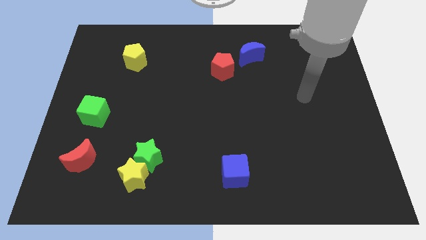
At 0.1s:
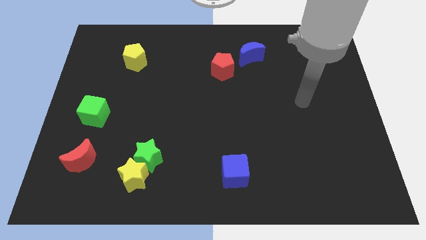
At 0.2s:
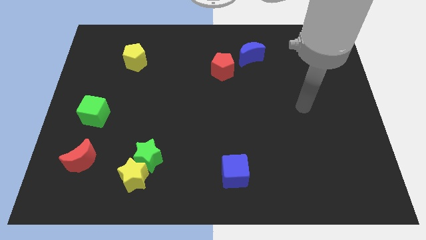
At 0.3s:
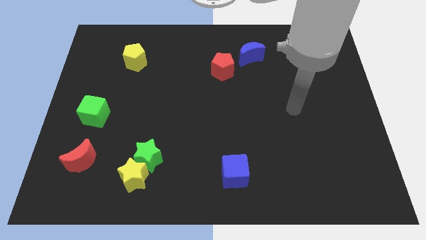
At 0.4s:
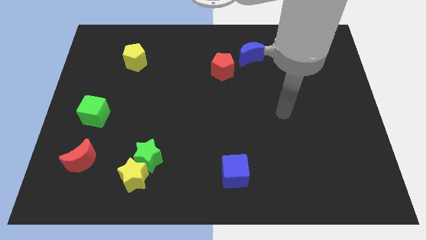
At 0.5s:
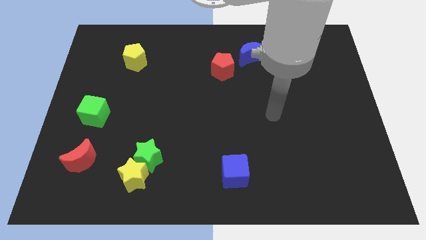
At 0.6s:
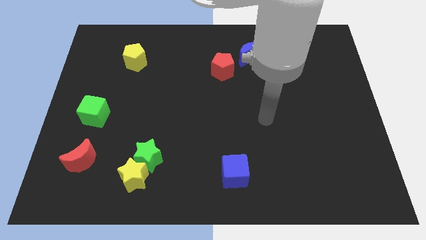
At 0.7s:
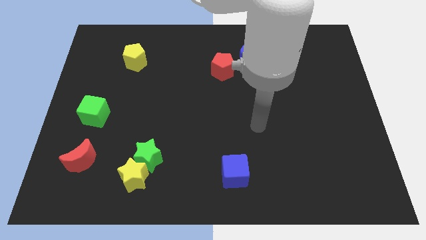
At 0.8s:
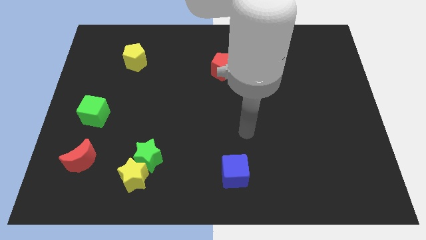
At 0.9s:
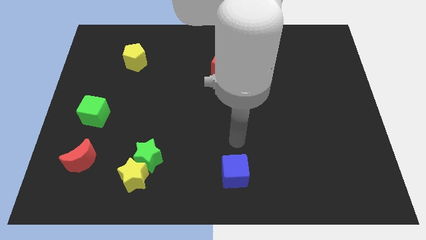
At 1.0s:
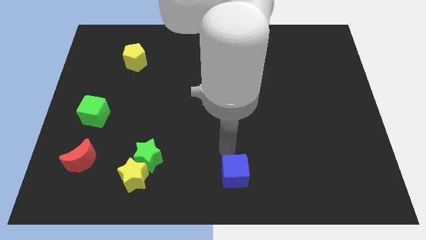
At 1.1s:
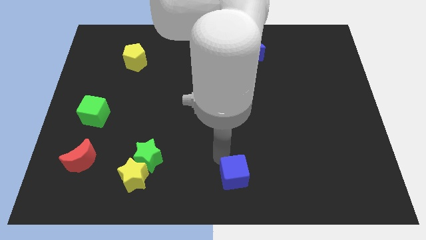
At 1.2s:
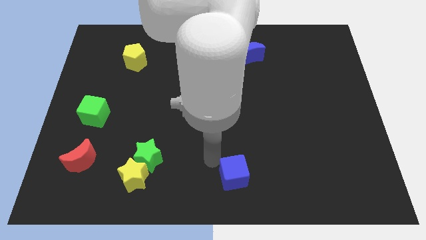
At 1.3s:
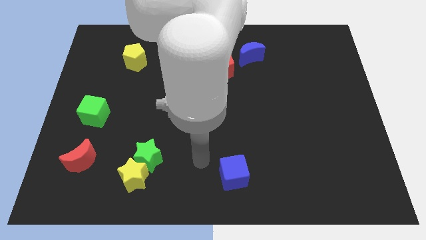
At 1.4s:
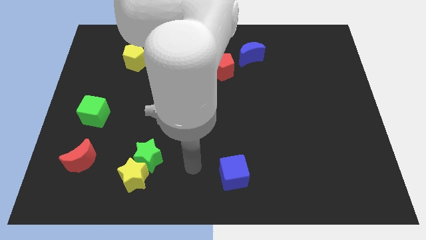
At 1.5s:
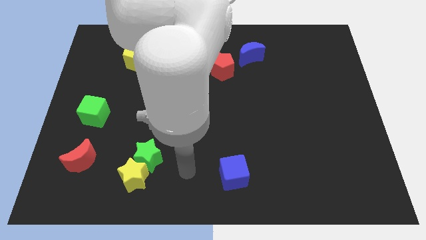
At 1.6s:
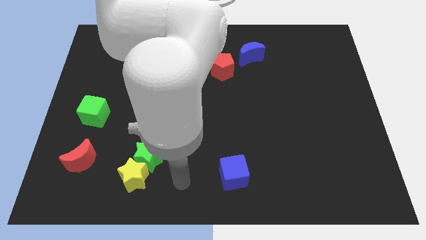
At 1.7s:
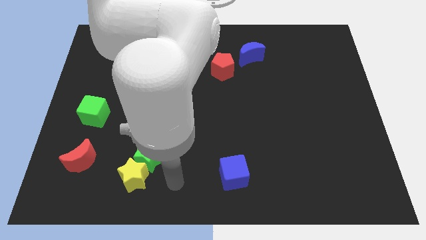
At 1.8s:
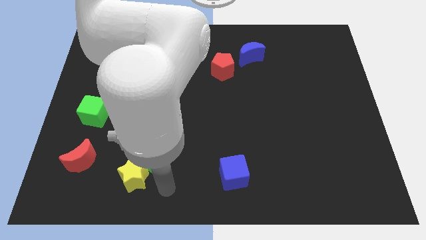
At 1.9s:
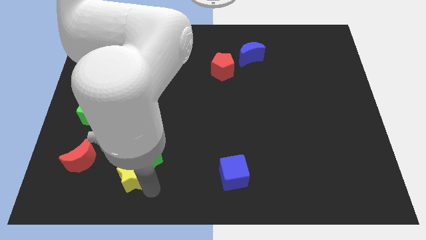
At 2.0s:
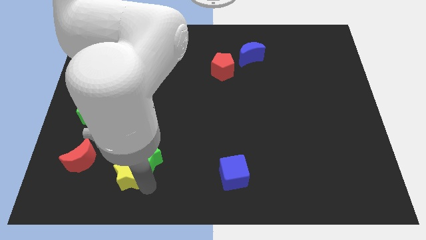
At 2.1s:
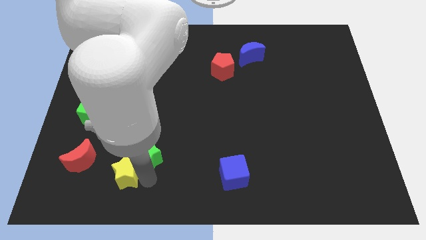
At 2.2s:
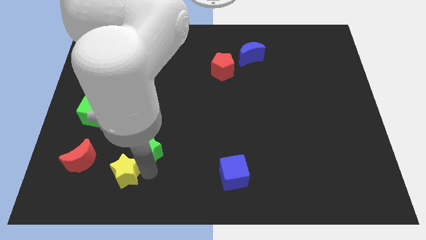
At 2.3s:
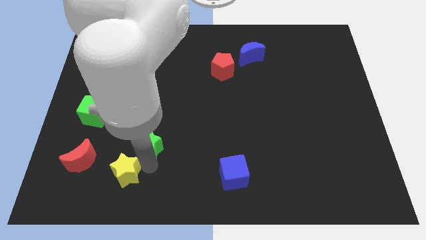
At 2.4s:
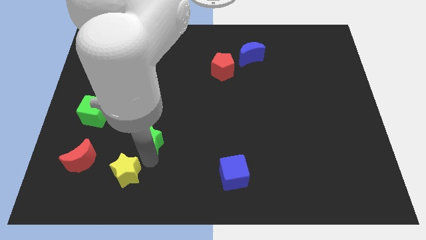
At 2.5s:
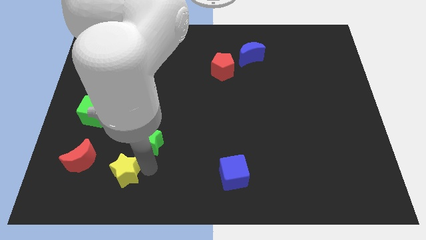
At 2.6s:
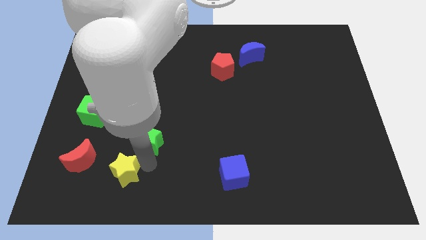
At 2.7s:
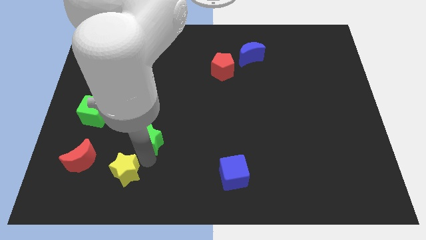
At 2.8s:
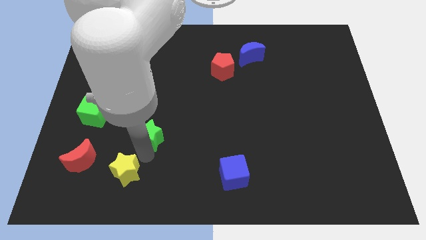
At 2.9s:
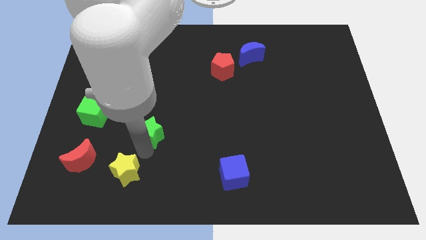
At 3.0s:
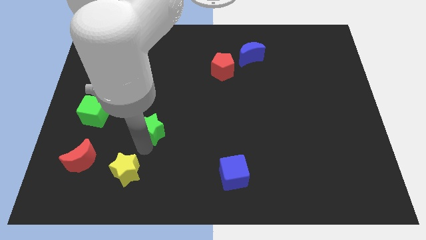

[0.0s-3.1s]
slightly push the green star up

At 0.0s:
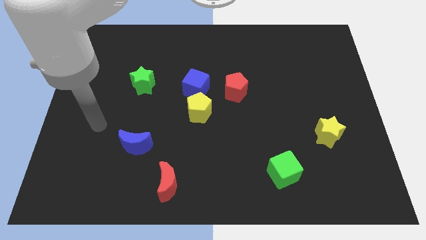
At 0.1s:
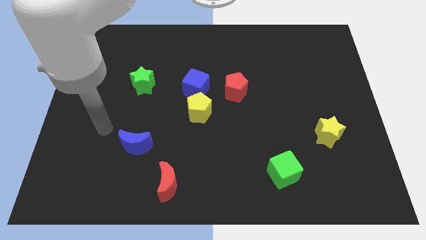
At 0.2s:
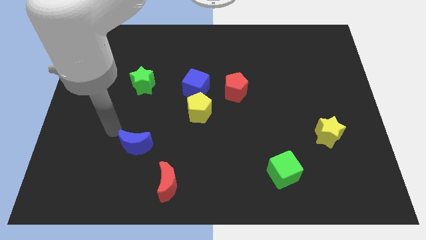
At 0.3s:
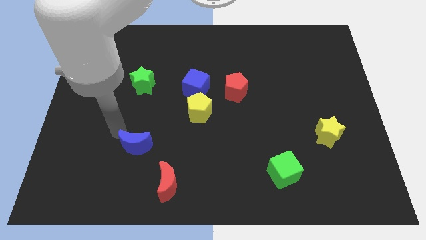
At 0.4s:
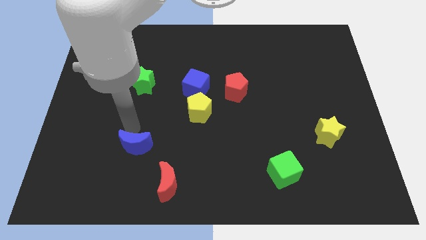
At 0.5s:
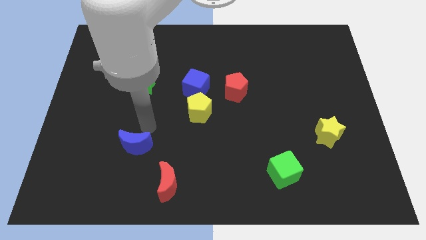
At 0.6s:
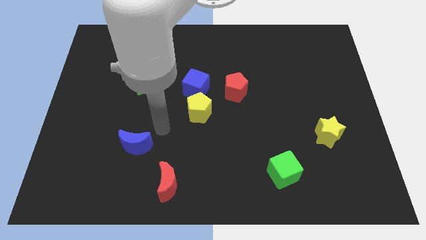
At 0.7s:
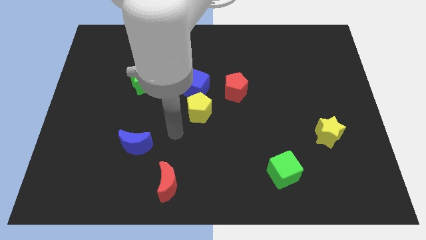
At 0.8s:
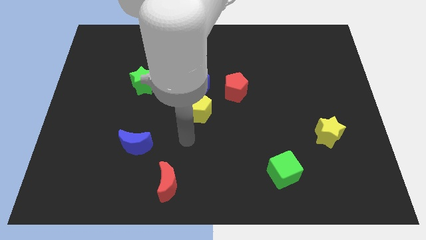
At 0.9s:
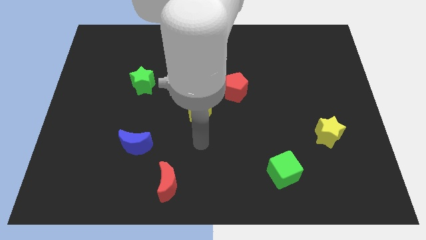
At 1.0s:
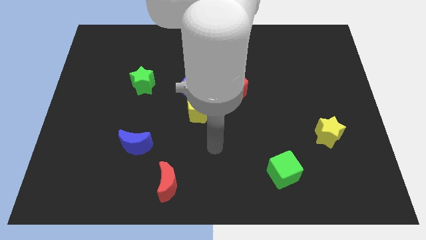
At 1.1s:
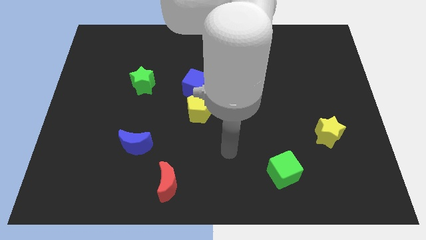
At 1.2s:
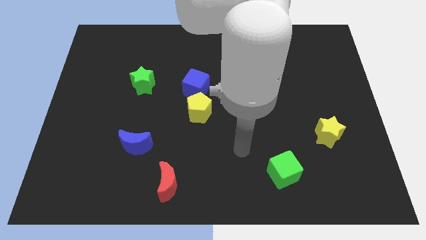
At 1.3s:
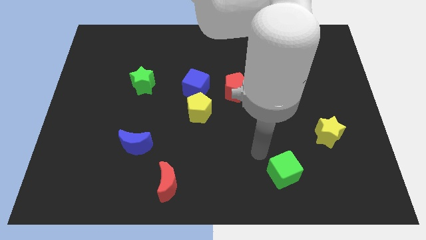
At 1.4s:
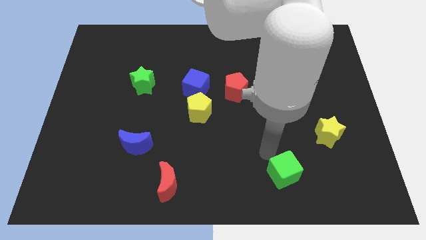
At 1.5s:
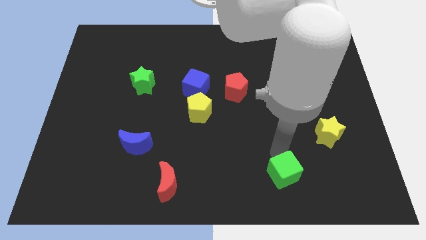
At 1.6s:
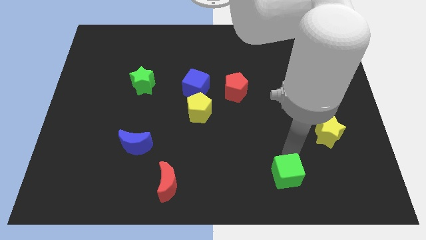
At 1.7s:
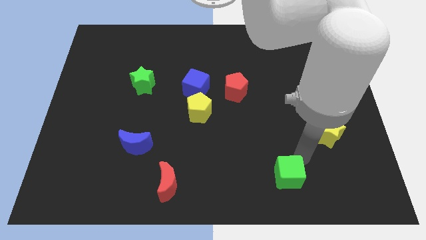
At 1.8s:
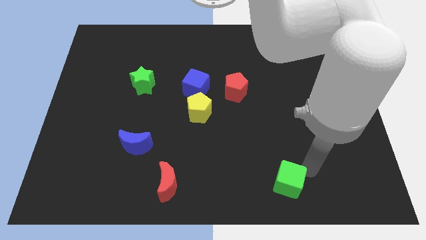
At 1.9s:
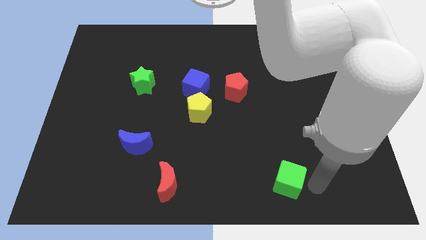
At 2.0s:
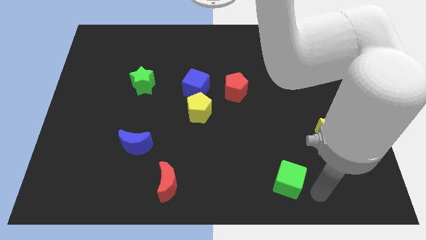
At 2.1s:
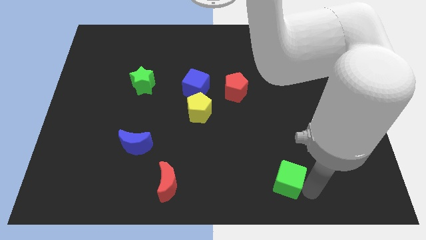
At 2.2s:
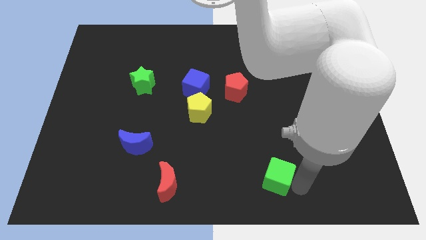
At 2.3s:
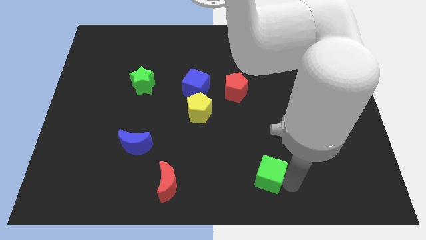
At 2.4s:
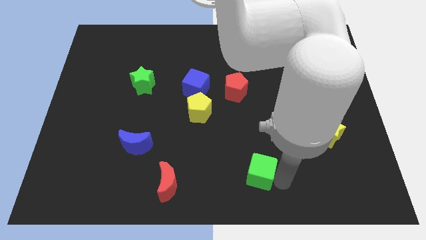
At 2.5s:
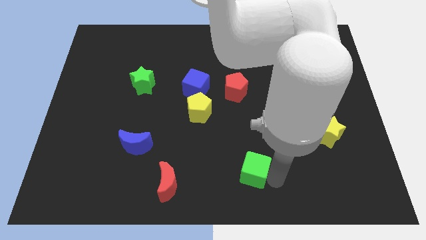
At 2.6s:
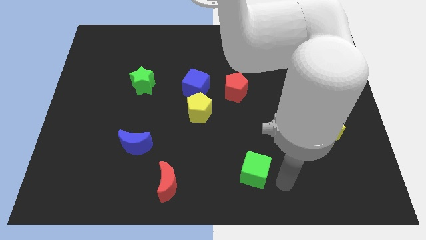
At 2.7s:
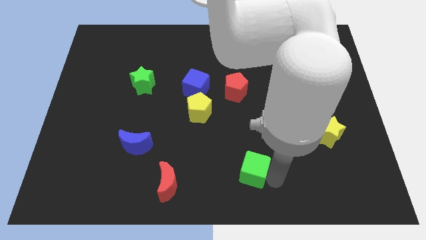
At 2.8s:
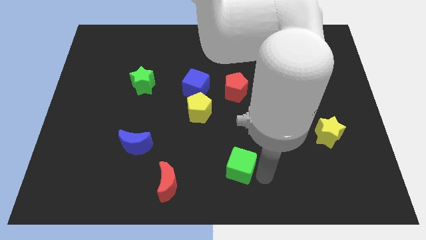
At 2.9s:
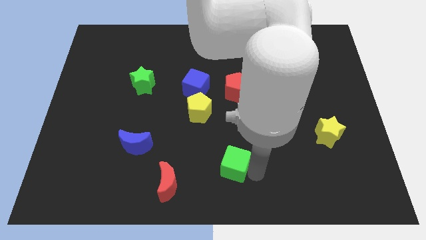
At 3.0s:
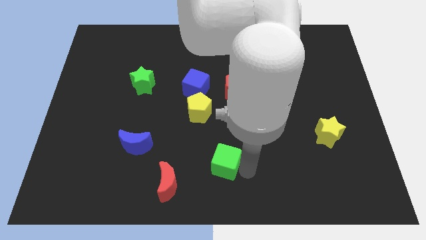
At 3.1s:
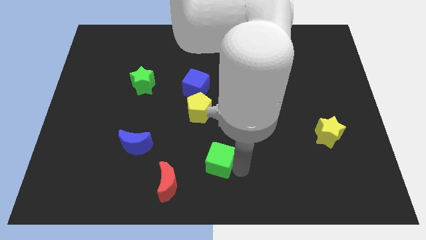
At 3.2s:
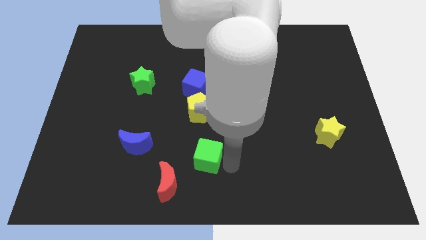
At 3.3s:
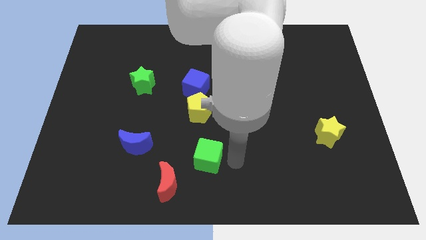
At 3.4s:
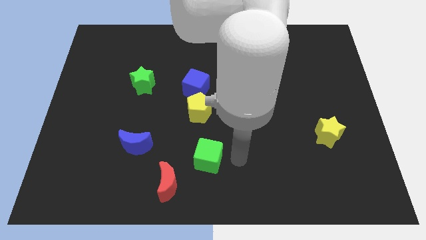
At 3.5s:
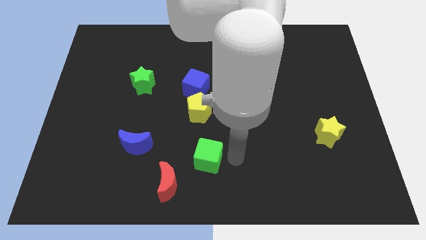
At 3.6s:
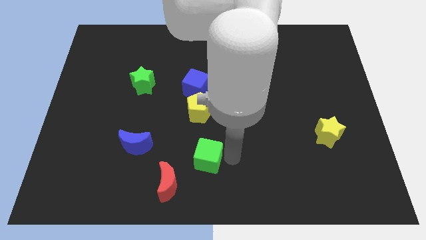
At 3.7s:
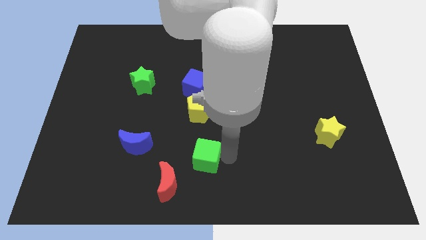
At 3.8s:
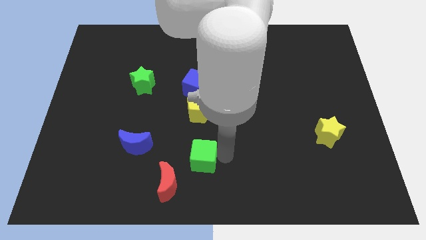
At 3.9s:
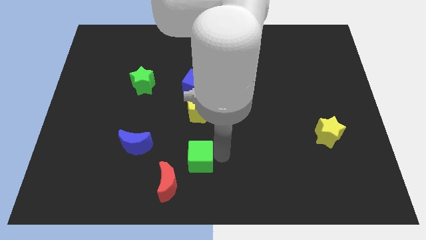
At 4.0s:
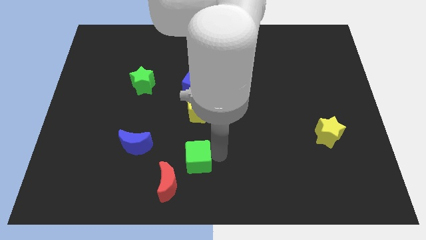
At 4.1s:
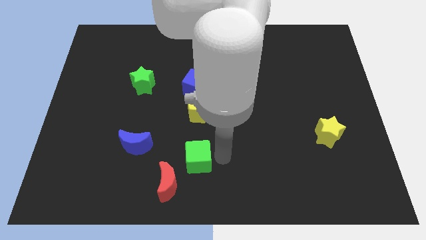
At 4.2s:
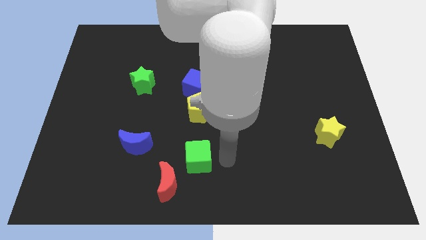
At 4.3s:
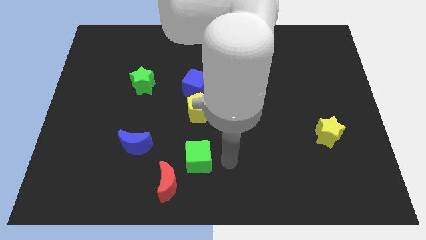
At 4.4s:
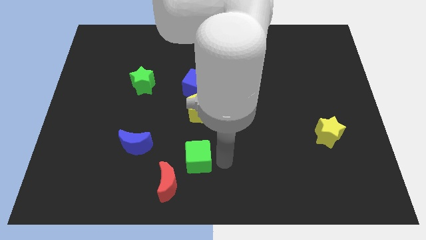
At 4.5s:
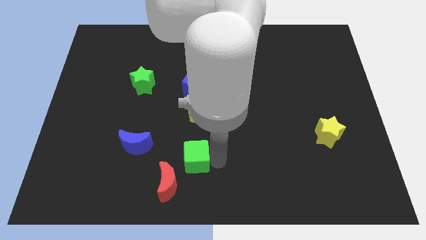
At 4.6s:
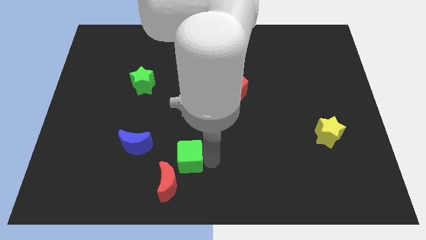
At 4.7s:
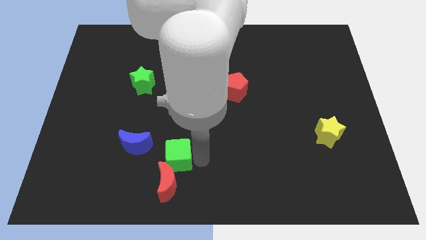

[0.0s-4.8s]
move the green cube to the left

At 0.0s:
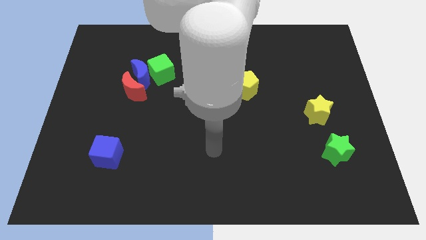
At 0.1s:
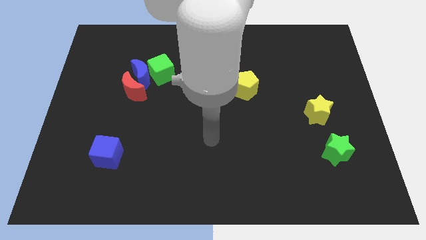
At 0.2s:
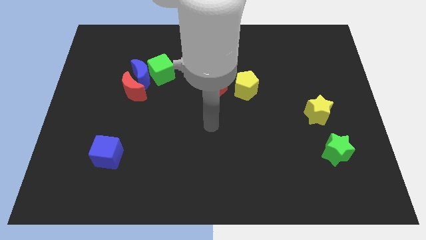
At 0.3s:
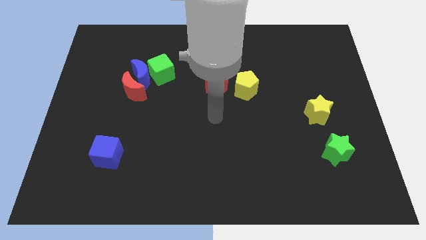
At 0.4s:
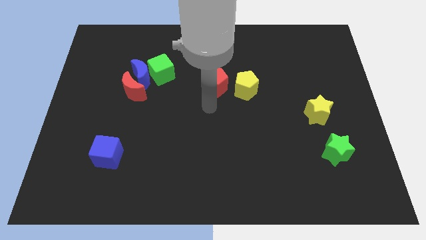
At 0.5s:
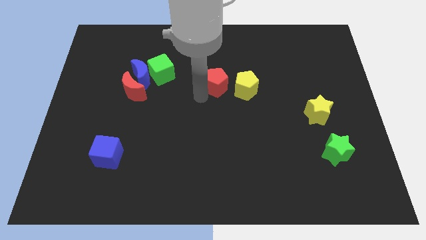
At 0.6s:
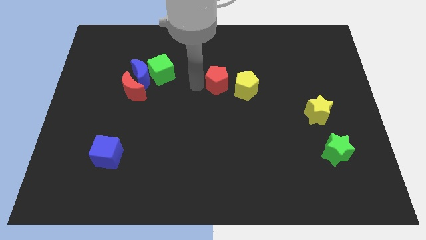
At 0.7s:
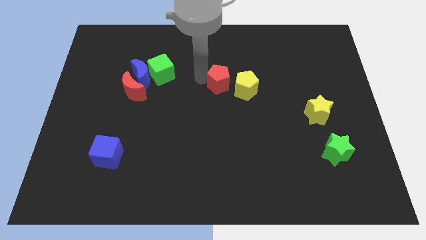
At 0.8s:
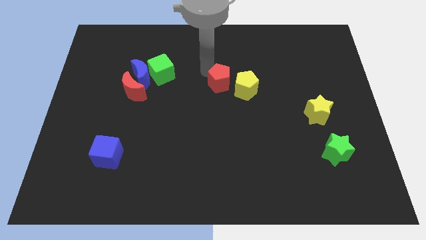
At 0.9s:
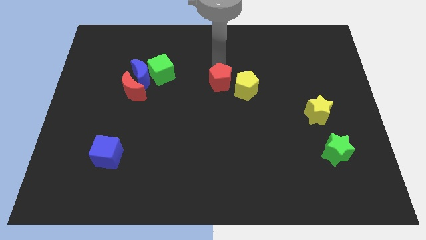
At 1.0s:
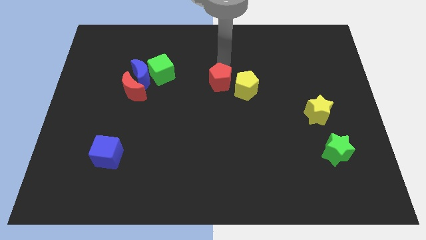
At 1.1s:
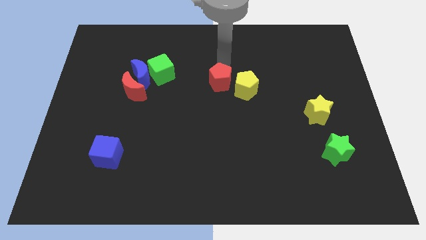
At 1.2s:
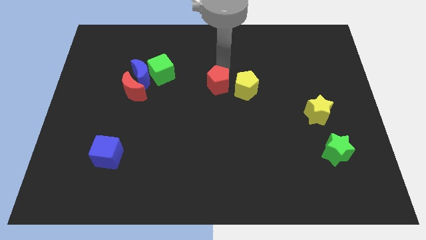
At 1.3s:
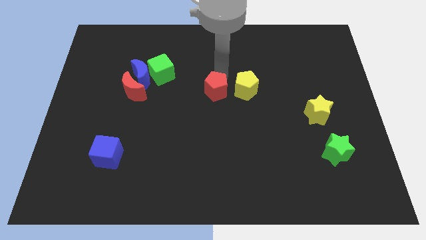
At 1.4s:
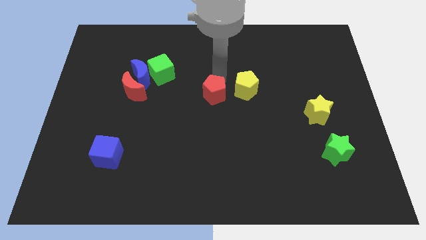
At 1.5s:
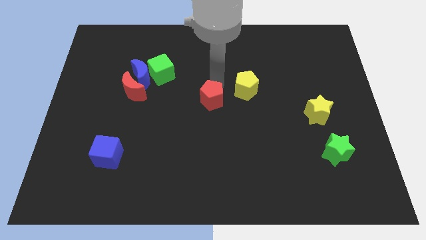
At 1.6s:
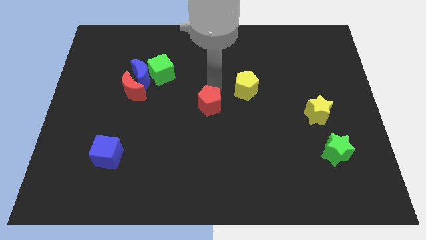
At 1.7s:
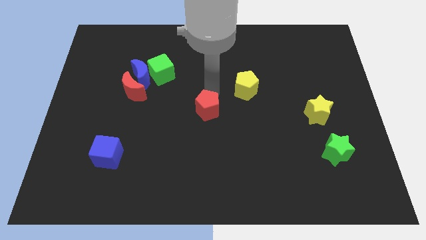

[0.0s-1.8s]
slide the red pentagon a bit down
